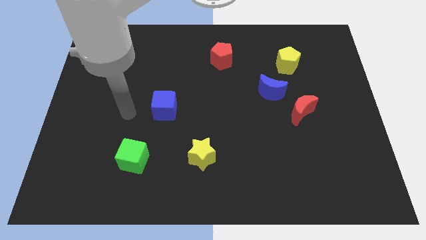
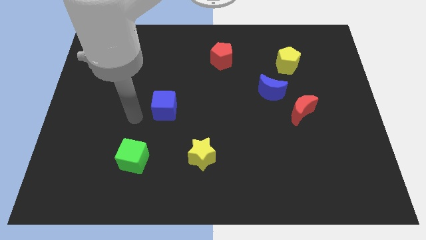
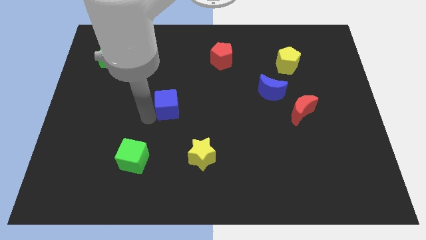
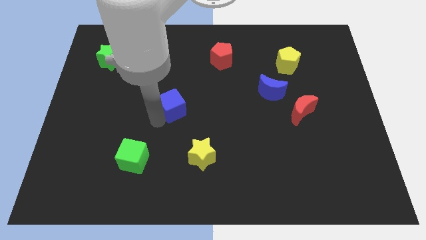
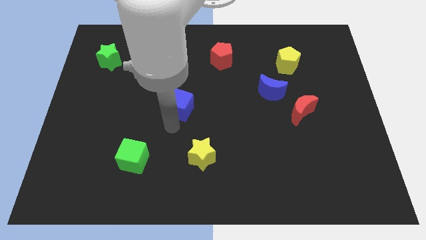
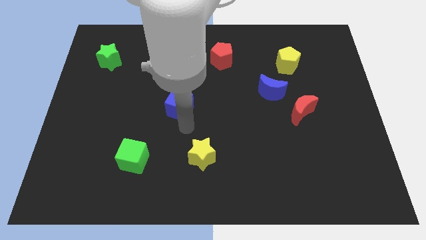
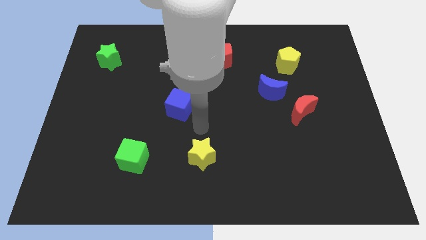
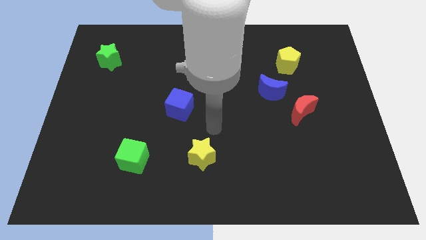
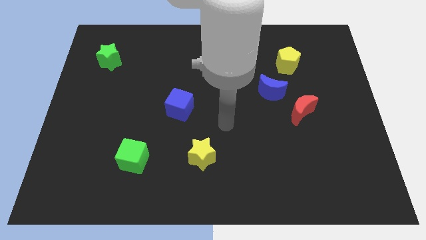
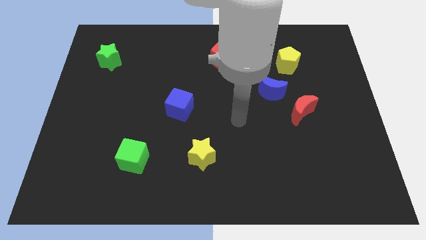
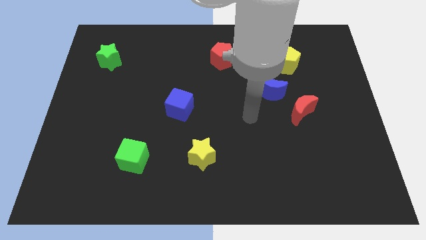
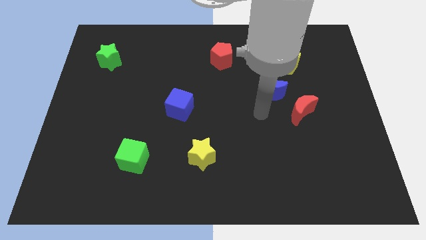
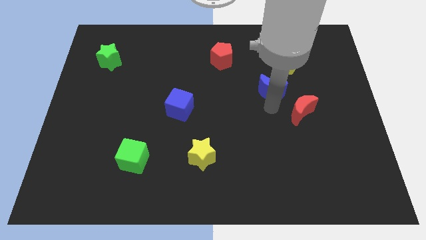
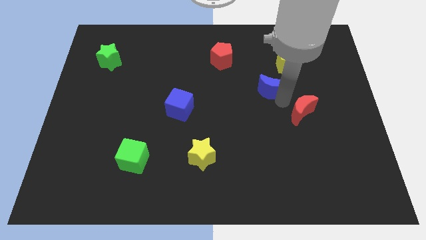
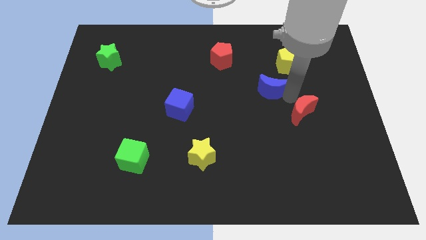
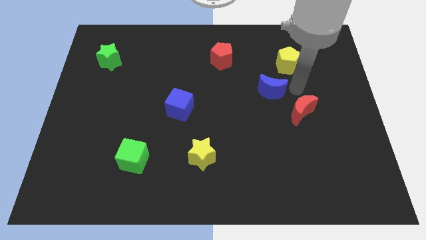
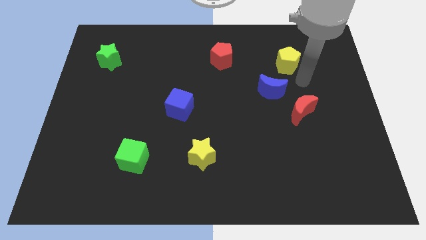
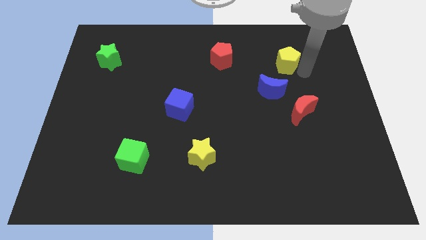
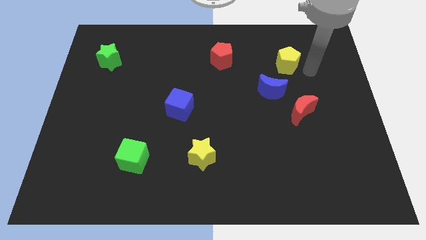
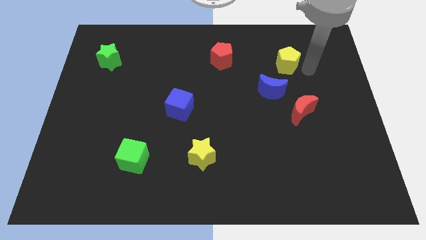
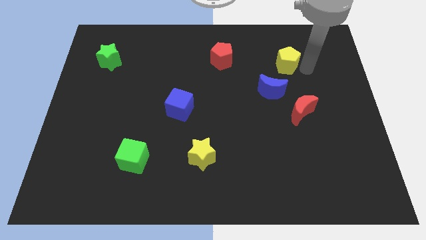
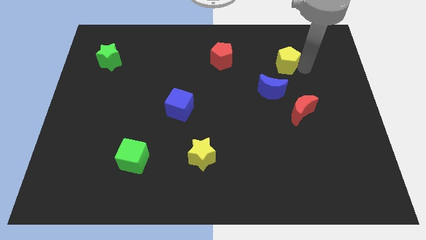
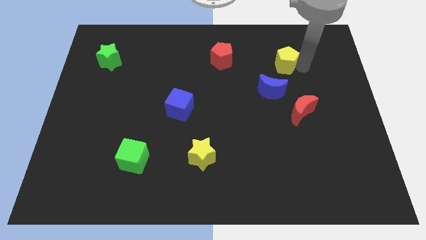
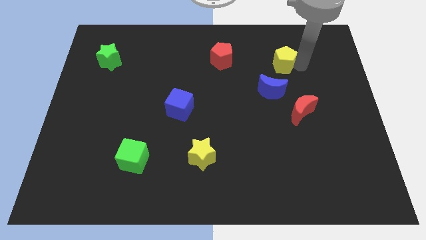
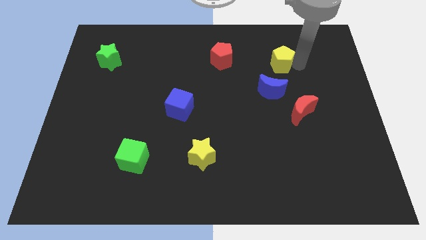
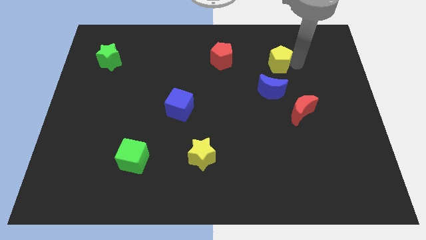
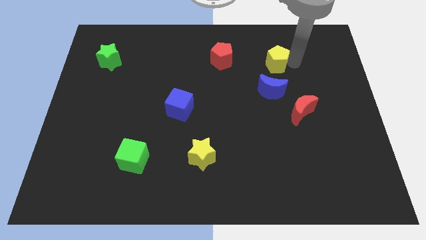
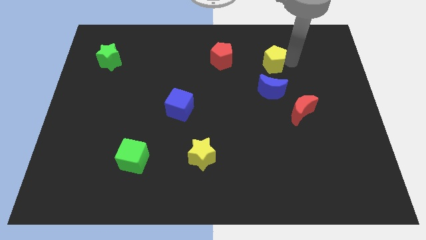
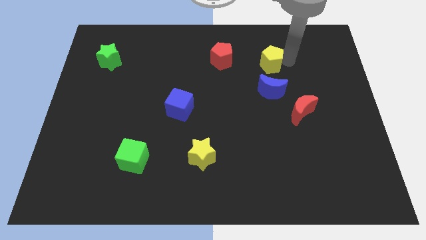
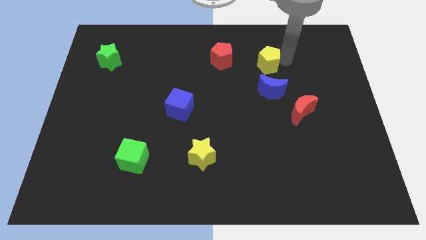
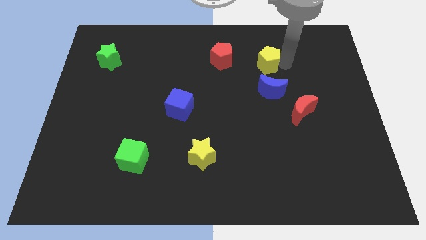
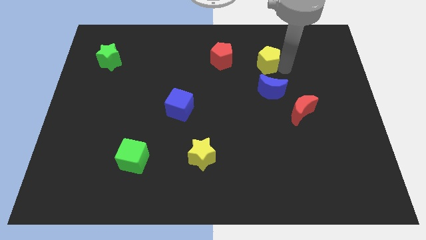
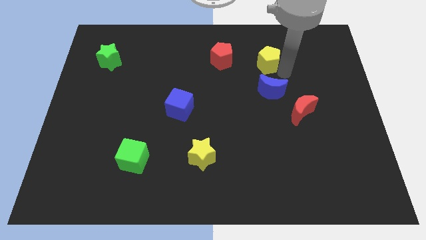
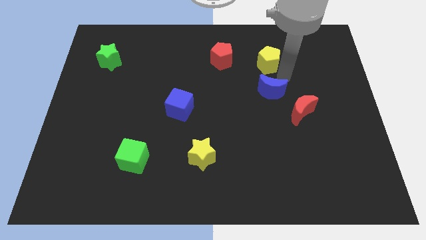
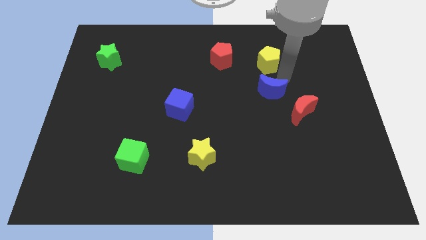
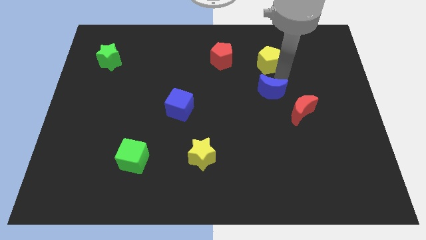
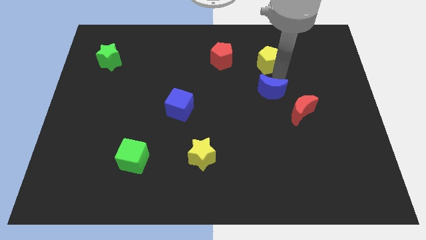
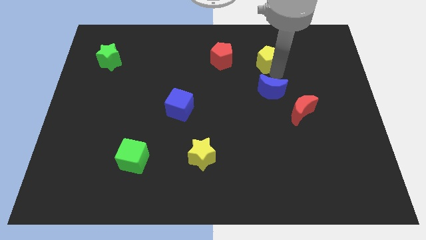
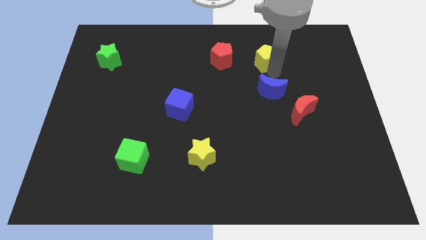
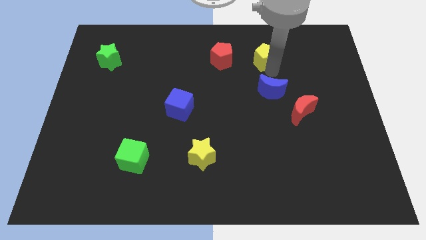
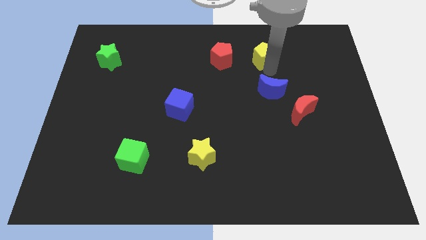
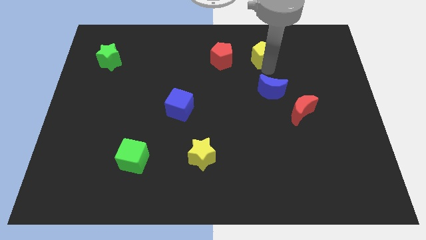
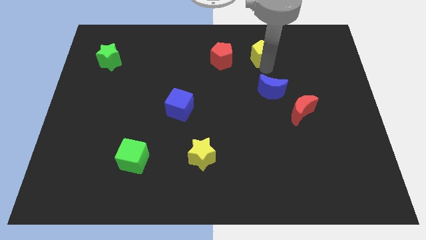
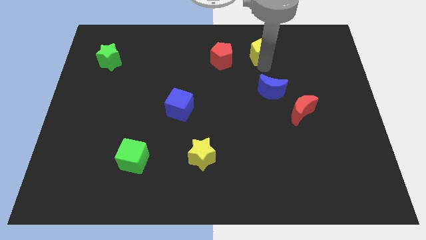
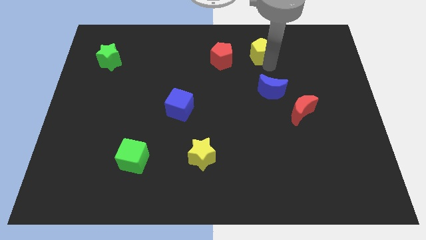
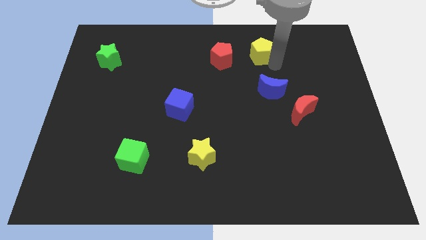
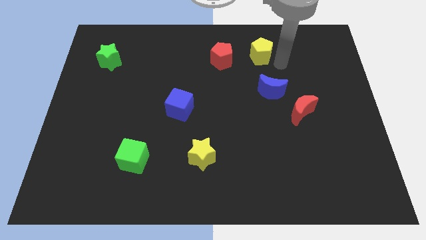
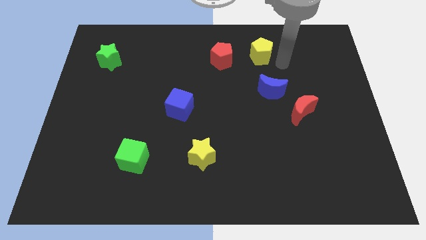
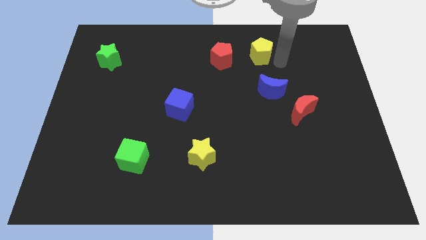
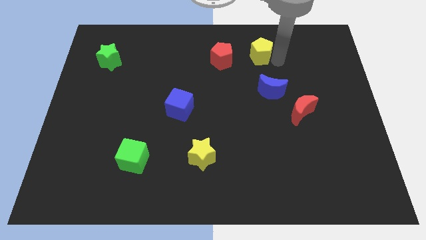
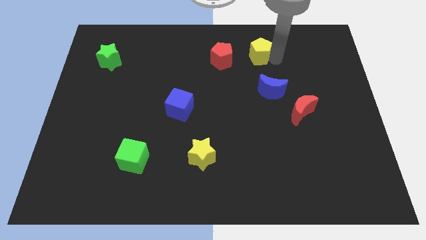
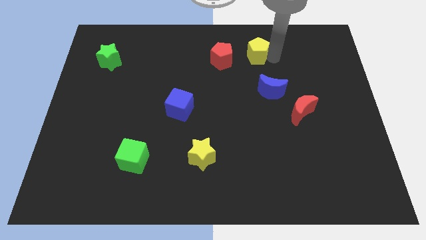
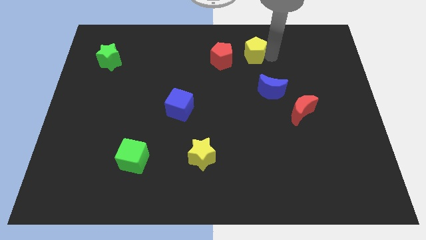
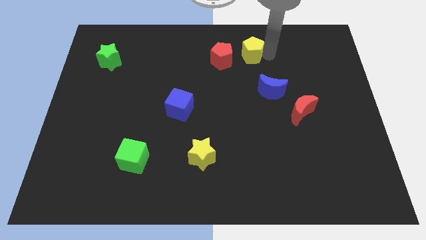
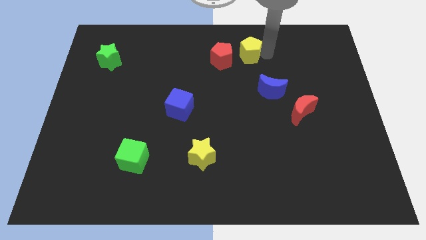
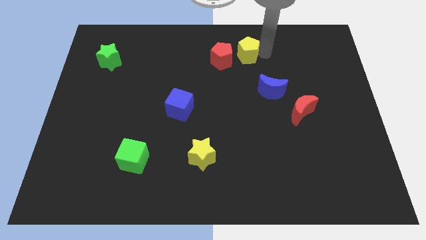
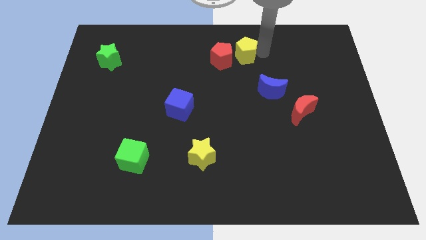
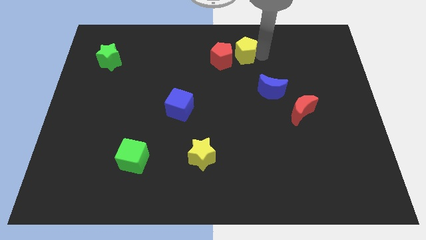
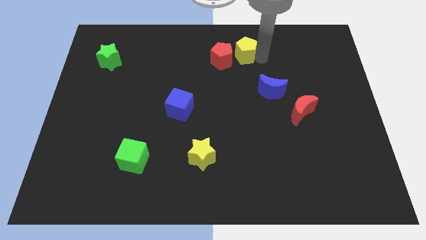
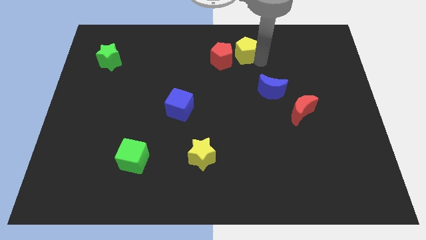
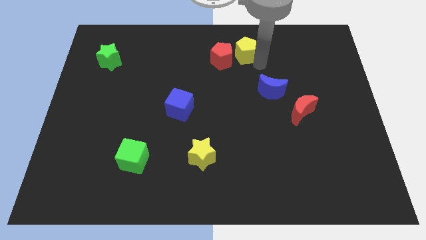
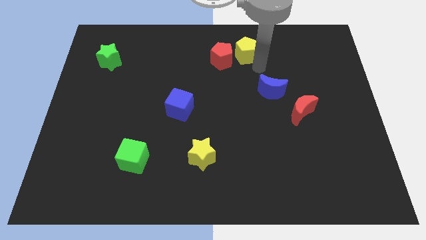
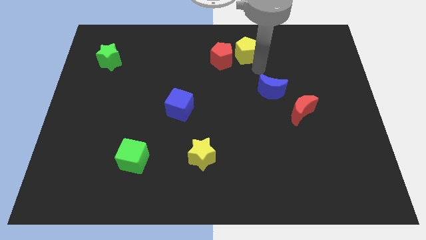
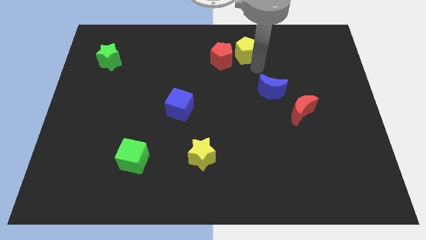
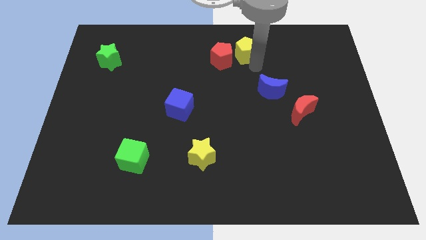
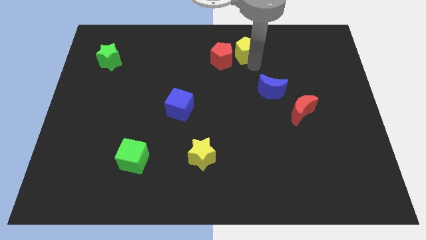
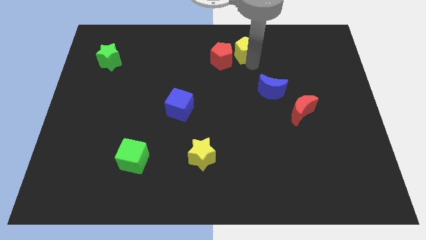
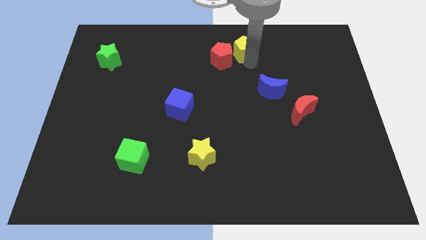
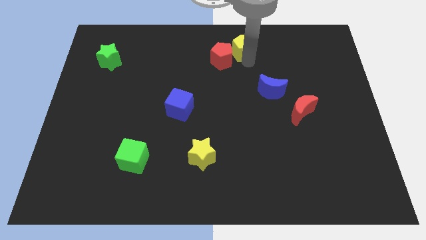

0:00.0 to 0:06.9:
move the yellow pentagon to the top
